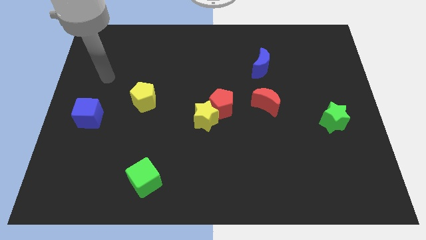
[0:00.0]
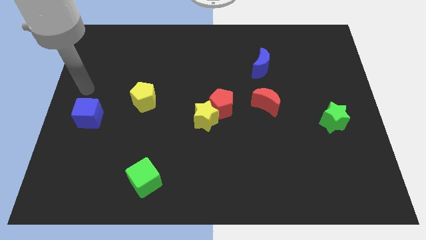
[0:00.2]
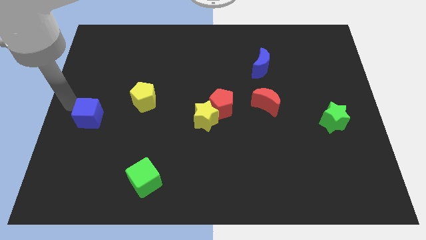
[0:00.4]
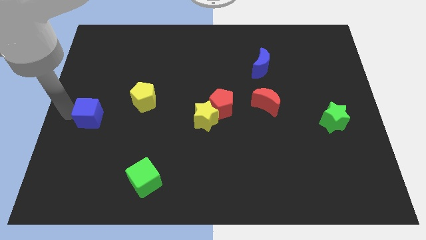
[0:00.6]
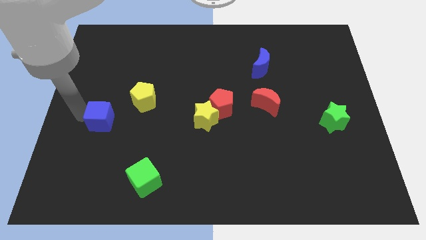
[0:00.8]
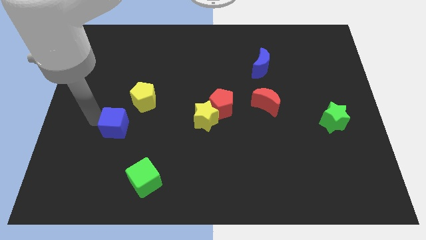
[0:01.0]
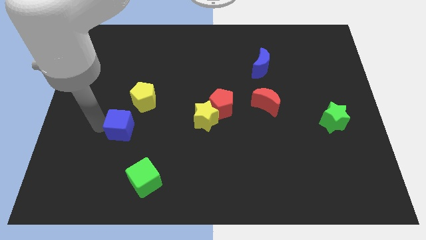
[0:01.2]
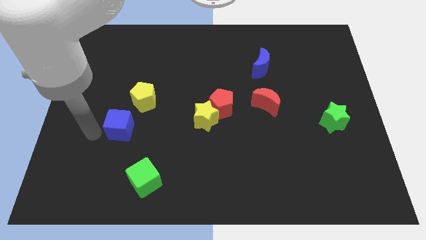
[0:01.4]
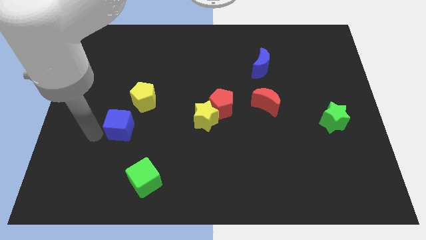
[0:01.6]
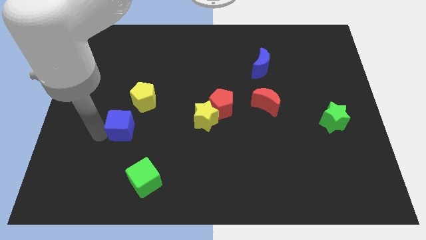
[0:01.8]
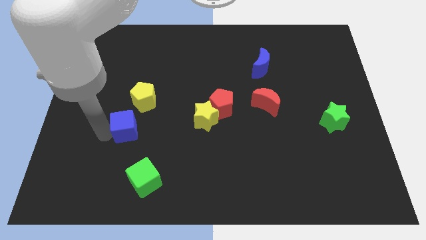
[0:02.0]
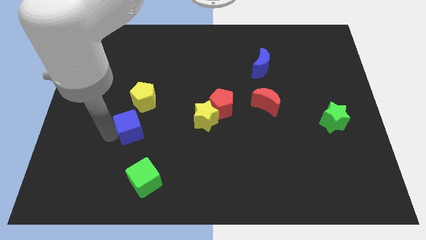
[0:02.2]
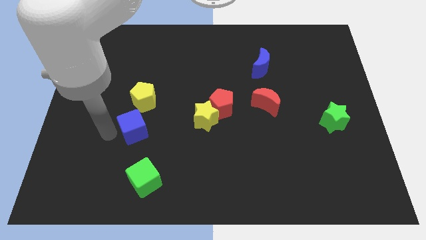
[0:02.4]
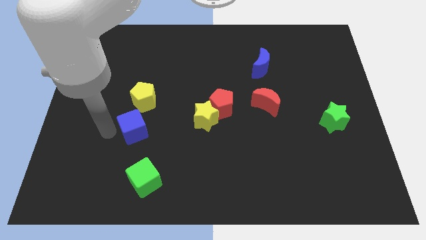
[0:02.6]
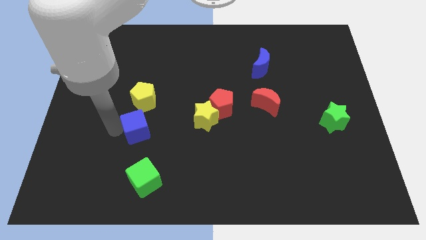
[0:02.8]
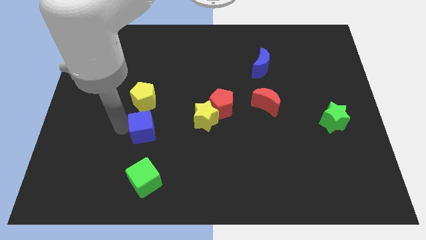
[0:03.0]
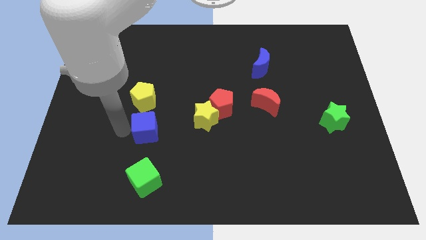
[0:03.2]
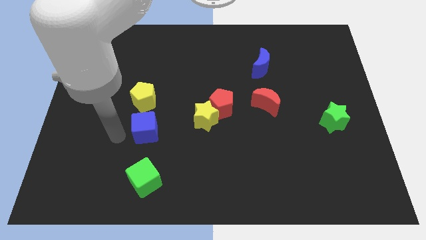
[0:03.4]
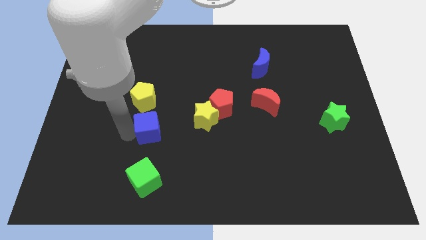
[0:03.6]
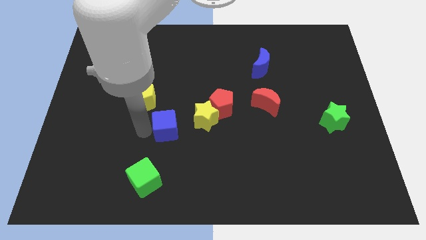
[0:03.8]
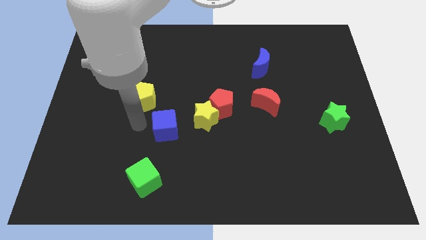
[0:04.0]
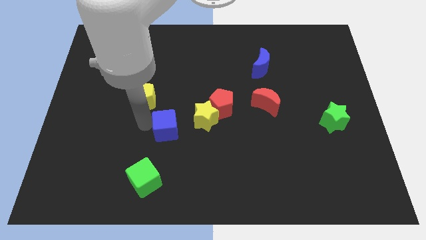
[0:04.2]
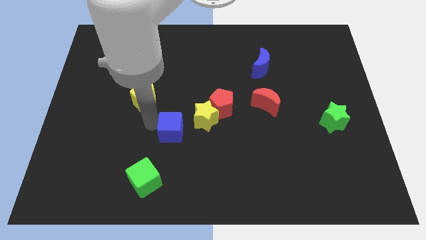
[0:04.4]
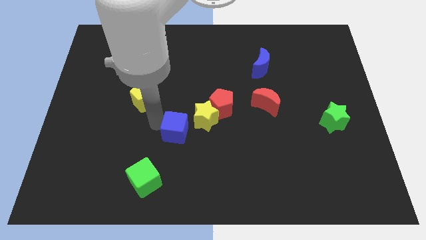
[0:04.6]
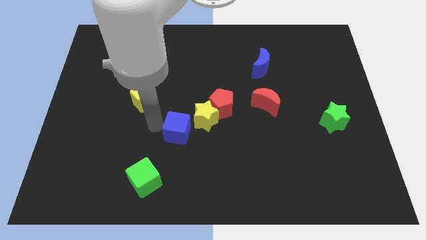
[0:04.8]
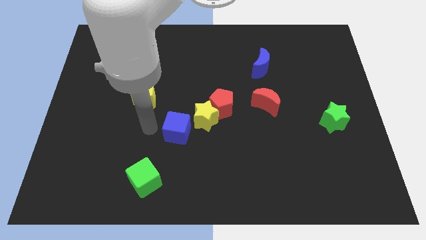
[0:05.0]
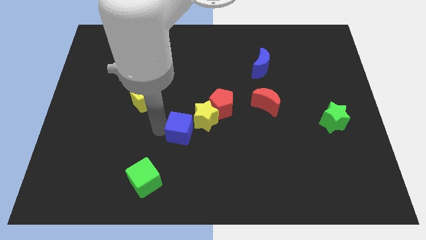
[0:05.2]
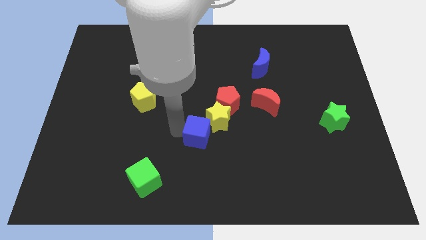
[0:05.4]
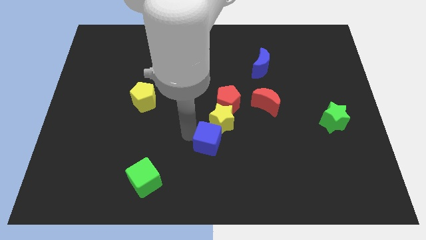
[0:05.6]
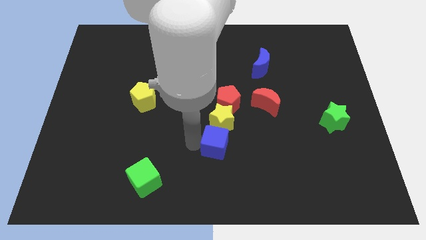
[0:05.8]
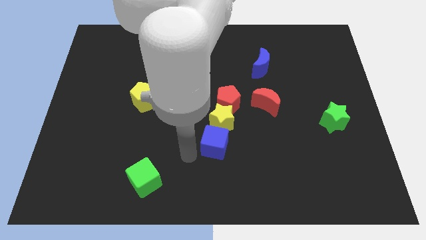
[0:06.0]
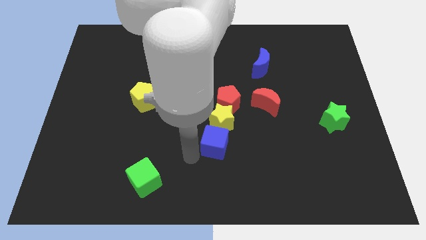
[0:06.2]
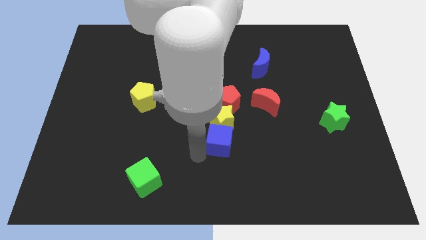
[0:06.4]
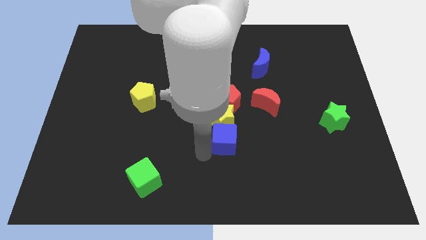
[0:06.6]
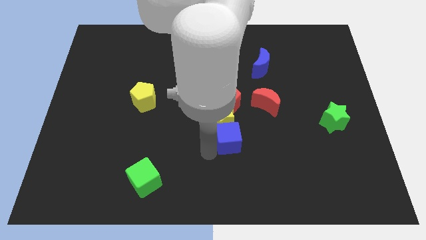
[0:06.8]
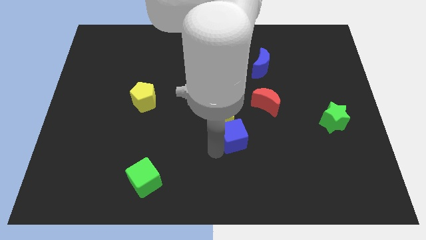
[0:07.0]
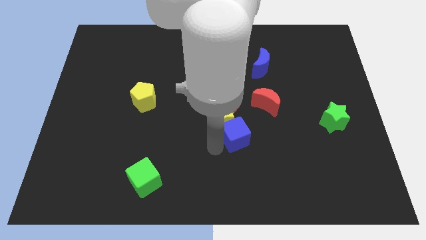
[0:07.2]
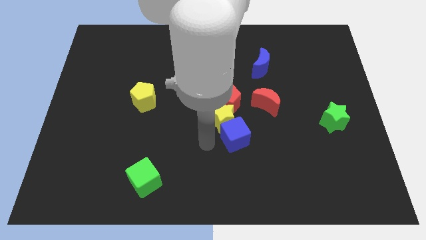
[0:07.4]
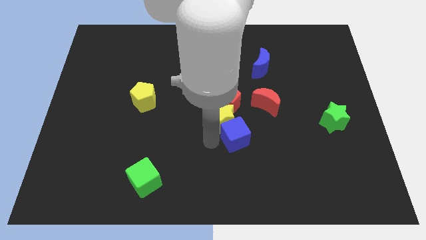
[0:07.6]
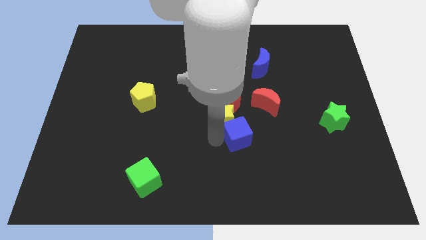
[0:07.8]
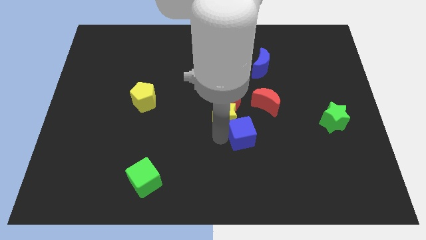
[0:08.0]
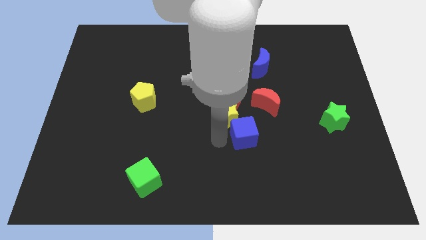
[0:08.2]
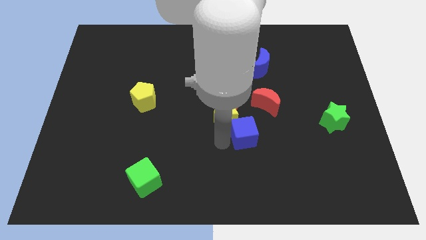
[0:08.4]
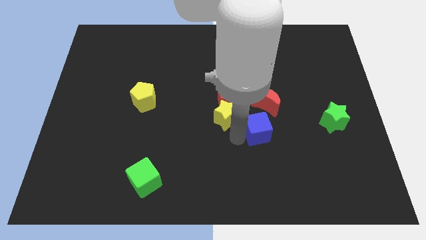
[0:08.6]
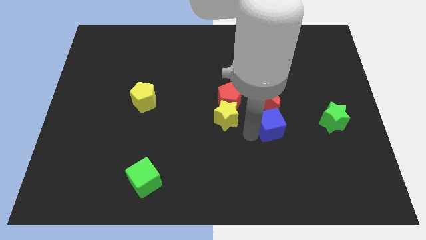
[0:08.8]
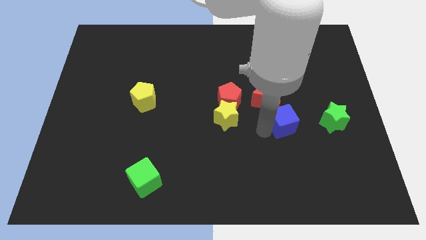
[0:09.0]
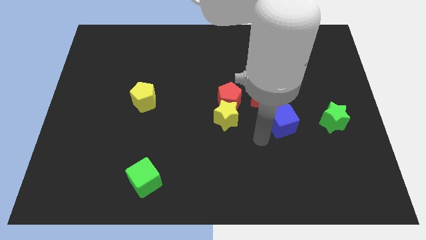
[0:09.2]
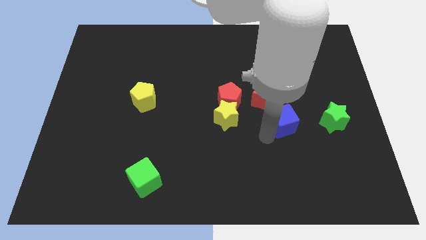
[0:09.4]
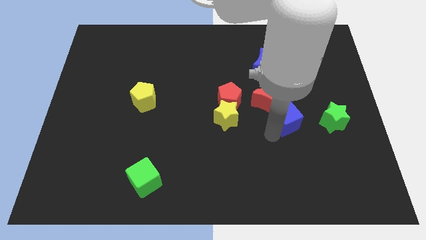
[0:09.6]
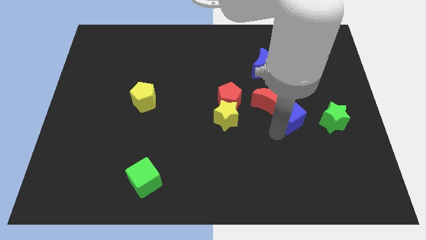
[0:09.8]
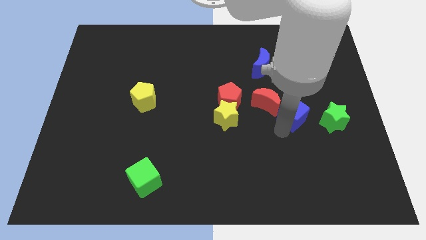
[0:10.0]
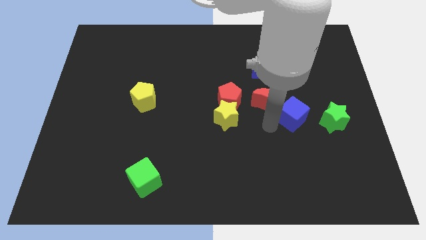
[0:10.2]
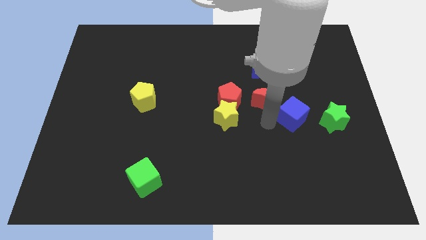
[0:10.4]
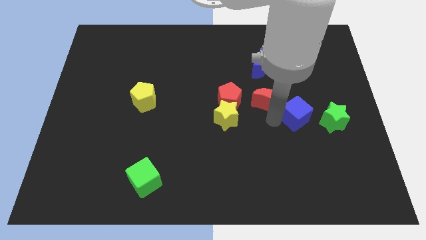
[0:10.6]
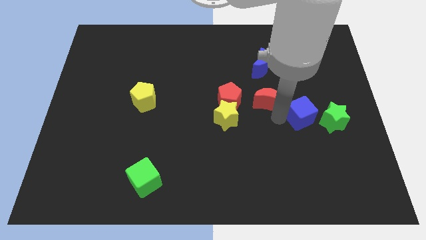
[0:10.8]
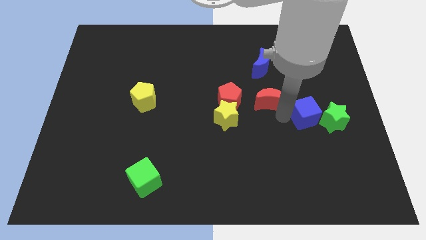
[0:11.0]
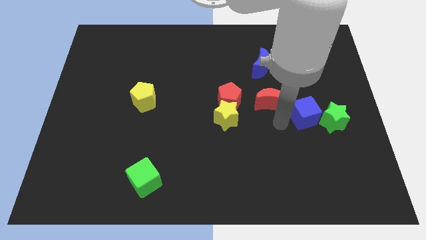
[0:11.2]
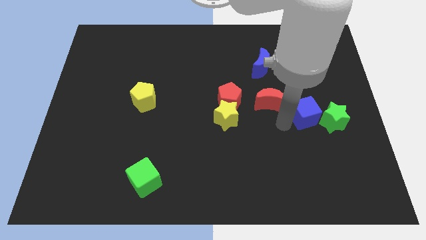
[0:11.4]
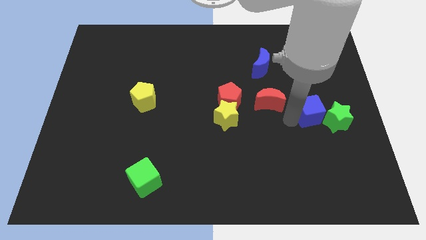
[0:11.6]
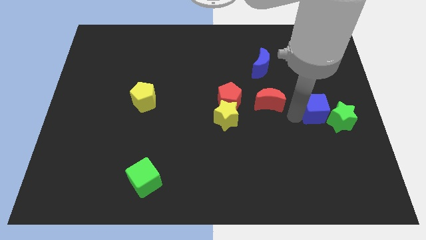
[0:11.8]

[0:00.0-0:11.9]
slide the blue cube next to the green star

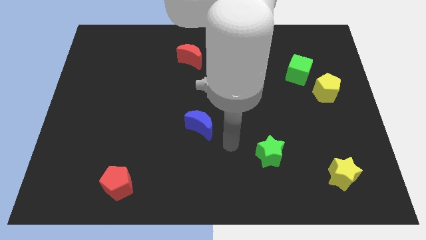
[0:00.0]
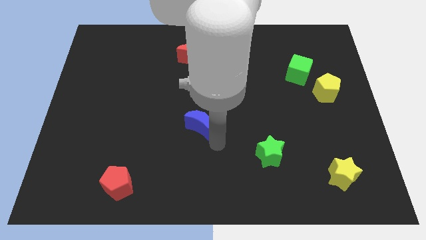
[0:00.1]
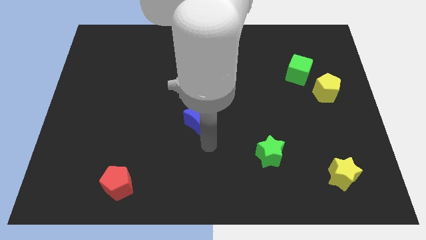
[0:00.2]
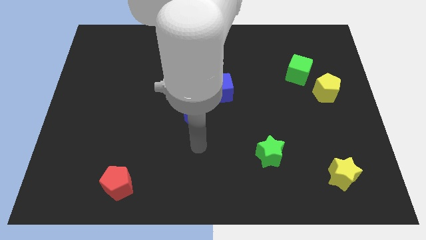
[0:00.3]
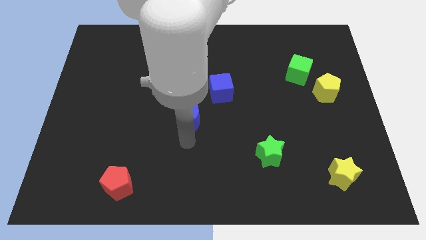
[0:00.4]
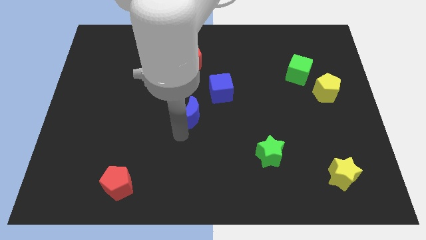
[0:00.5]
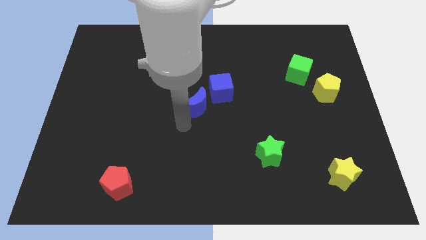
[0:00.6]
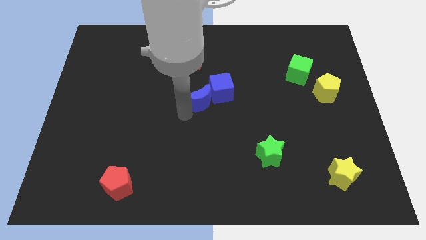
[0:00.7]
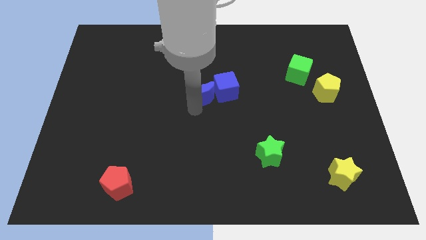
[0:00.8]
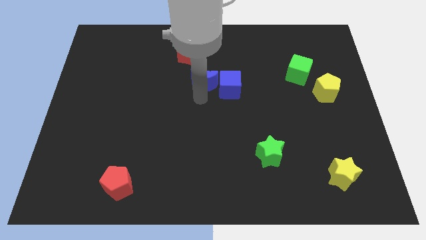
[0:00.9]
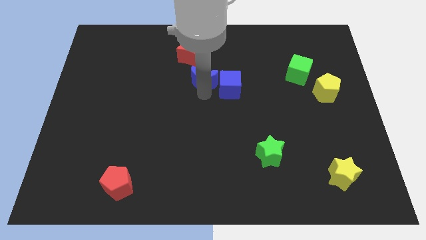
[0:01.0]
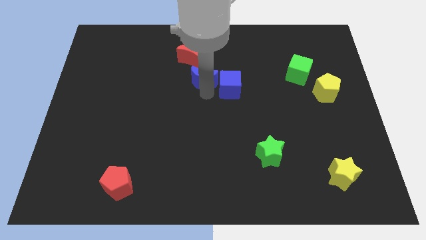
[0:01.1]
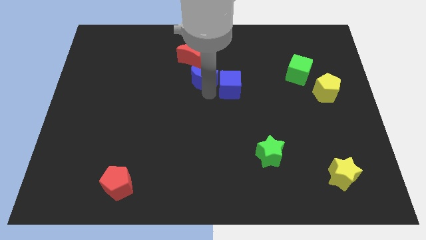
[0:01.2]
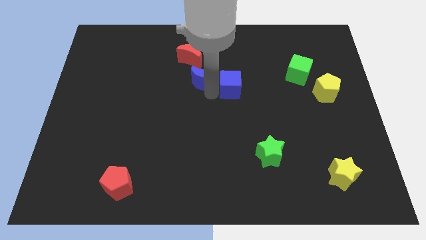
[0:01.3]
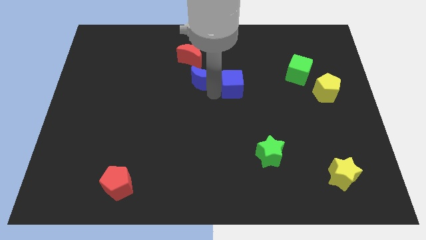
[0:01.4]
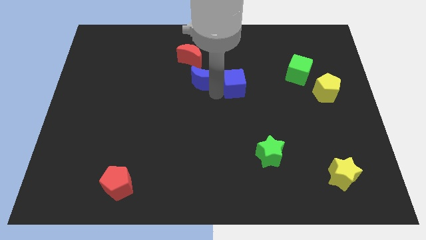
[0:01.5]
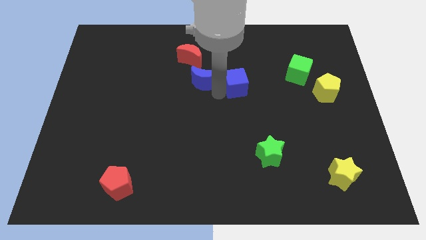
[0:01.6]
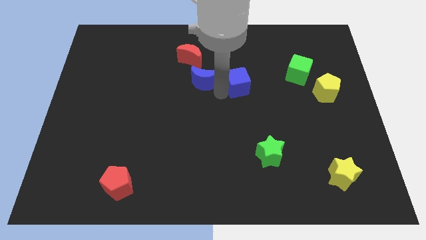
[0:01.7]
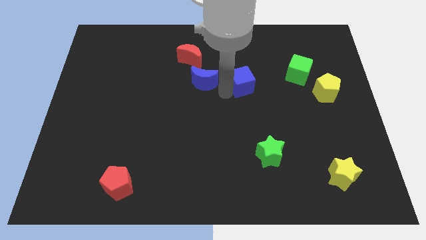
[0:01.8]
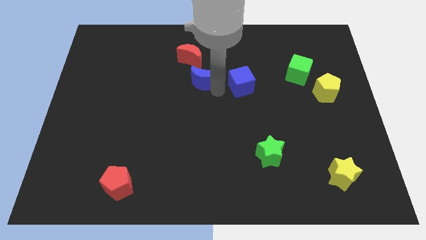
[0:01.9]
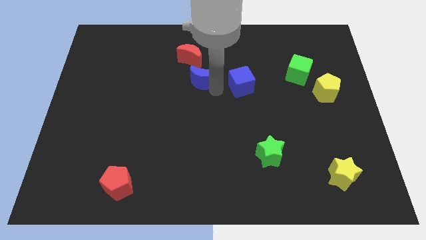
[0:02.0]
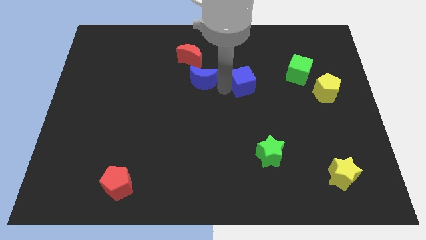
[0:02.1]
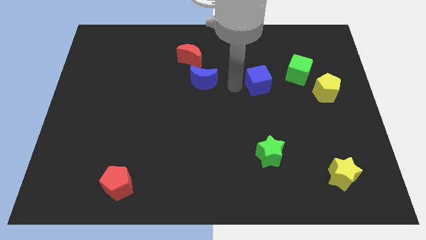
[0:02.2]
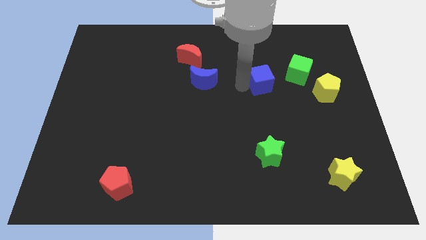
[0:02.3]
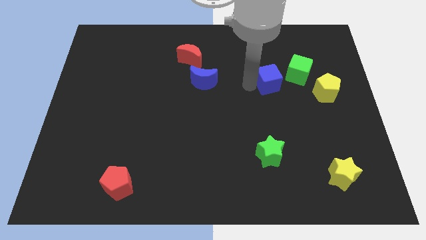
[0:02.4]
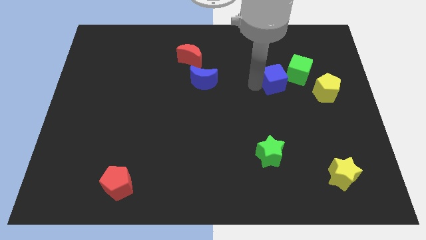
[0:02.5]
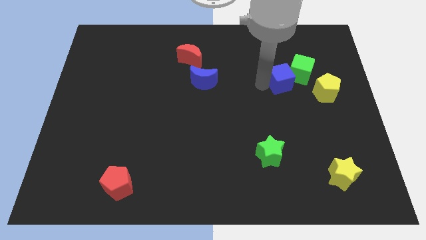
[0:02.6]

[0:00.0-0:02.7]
move the blue cube towards the green cube
